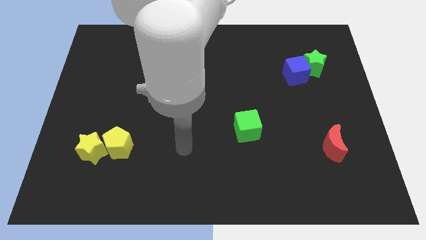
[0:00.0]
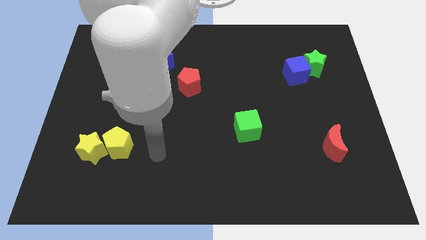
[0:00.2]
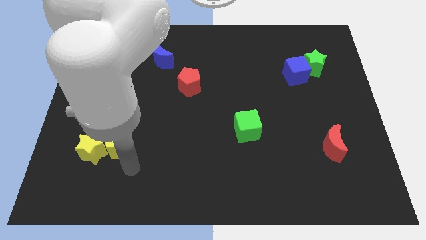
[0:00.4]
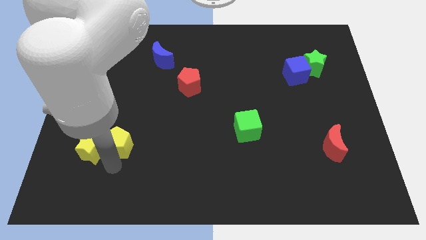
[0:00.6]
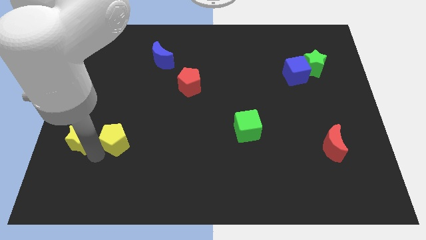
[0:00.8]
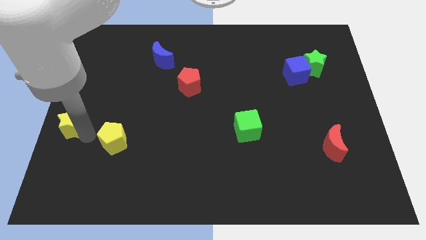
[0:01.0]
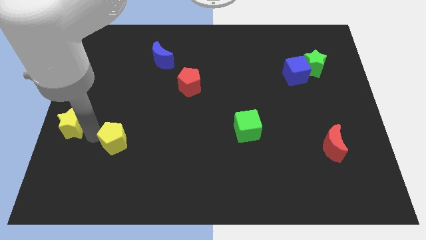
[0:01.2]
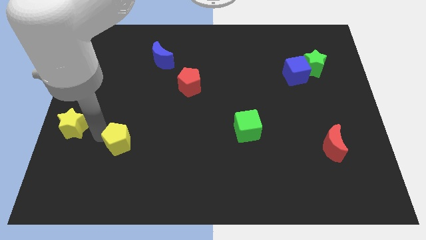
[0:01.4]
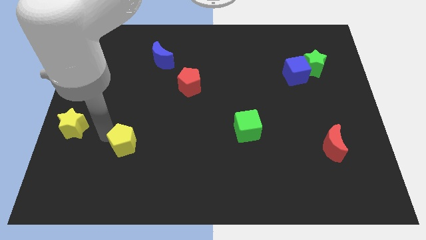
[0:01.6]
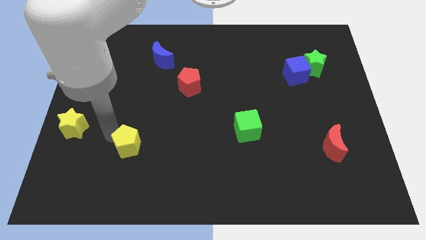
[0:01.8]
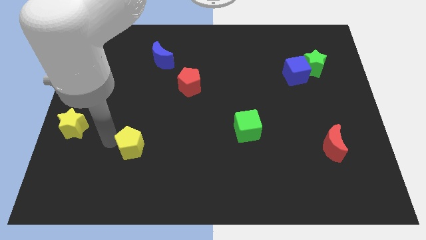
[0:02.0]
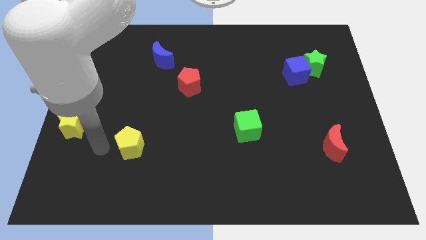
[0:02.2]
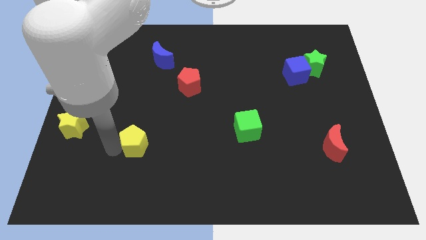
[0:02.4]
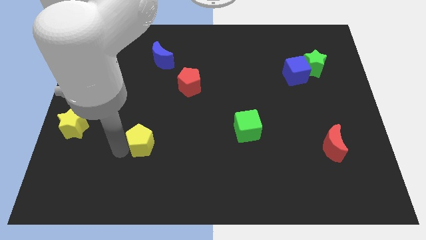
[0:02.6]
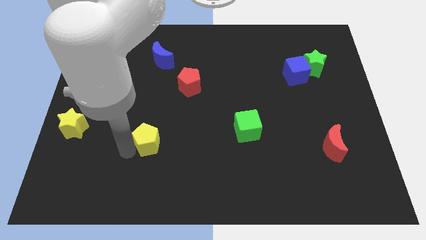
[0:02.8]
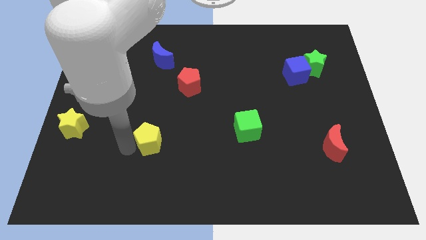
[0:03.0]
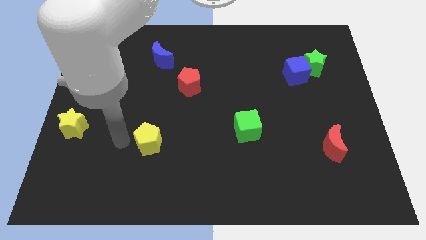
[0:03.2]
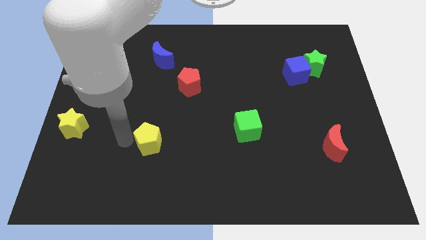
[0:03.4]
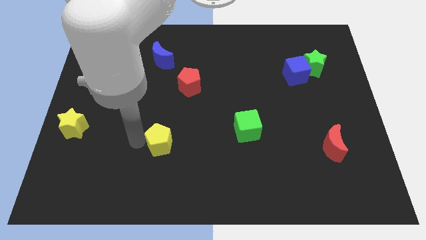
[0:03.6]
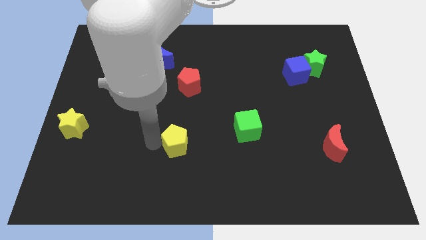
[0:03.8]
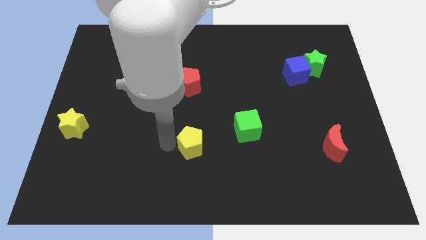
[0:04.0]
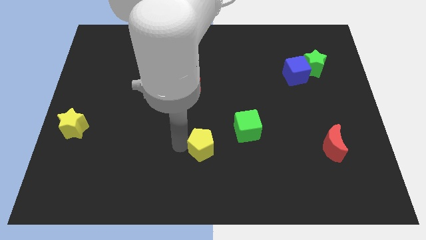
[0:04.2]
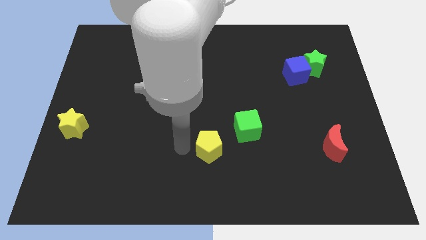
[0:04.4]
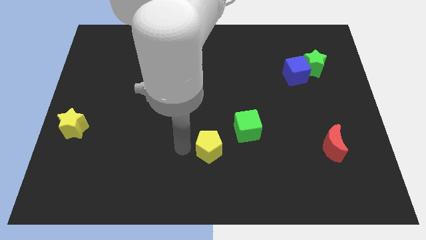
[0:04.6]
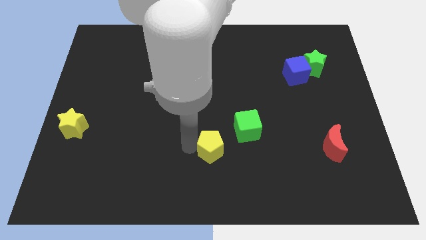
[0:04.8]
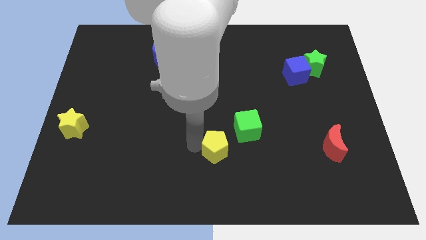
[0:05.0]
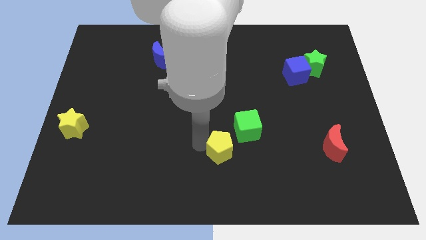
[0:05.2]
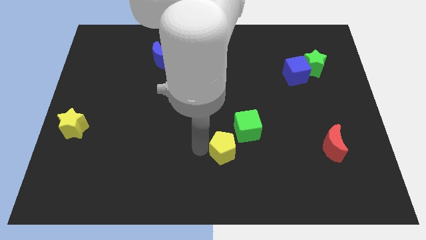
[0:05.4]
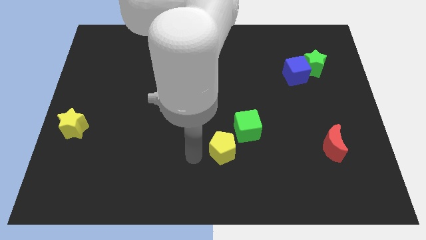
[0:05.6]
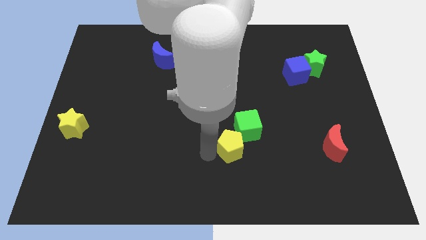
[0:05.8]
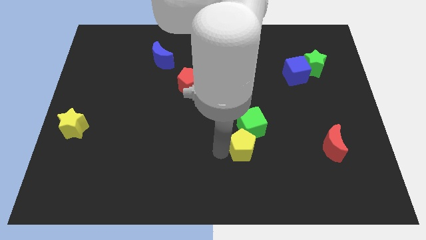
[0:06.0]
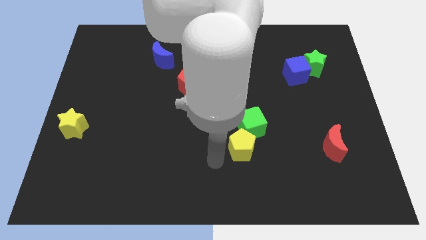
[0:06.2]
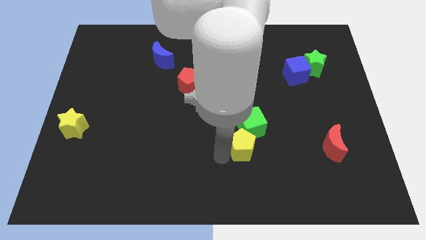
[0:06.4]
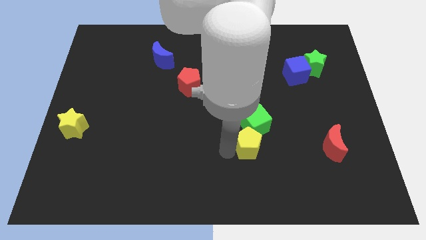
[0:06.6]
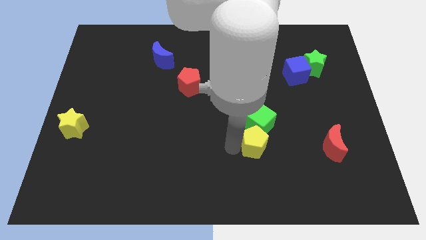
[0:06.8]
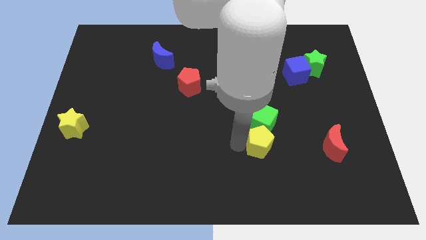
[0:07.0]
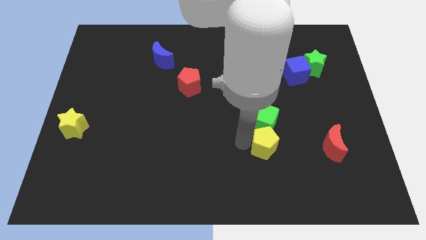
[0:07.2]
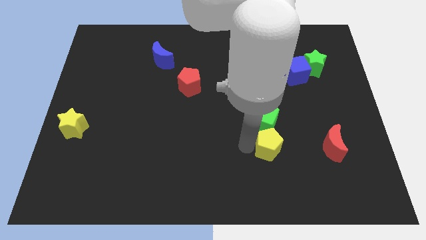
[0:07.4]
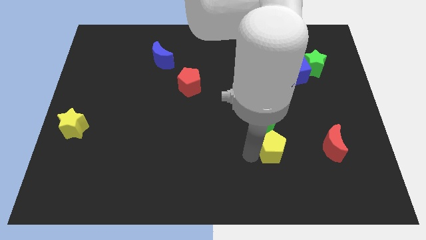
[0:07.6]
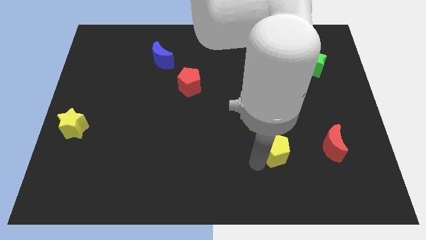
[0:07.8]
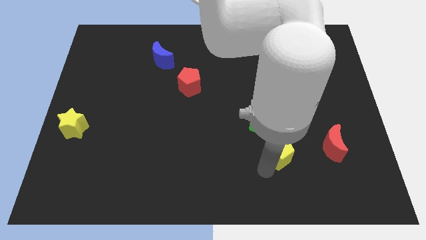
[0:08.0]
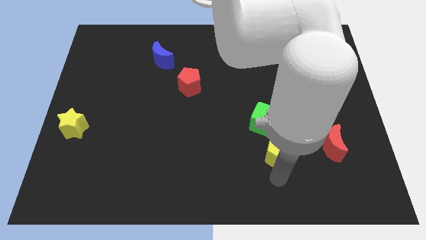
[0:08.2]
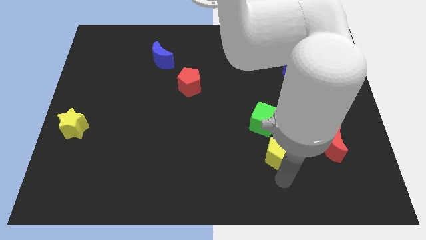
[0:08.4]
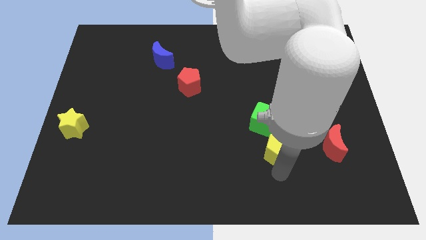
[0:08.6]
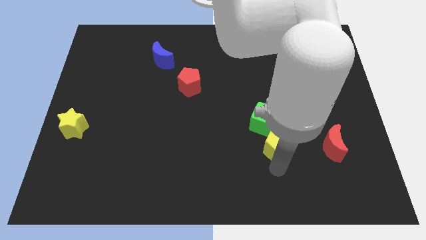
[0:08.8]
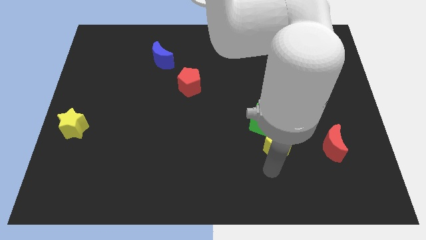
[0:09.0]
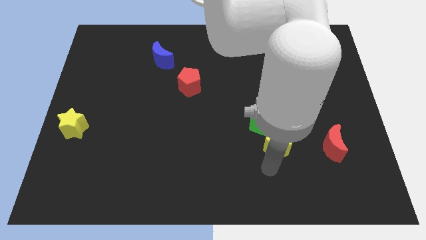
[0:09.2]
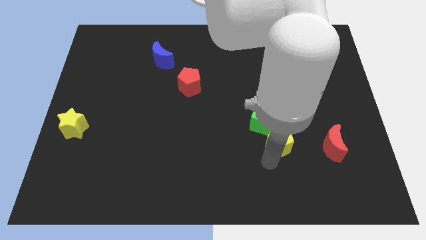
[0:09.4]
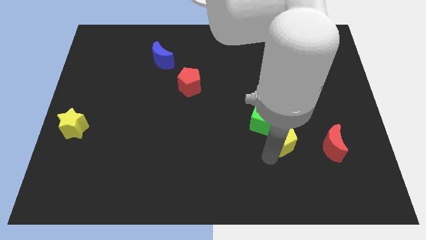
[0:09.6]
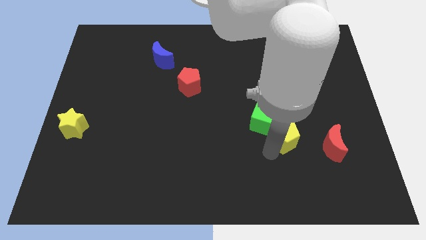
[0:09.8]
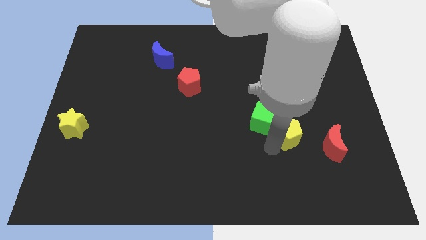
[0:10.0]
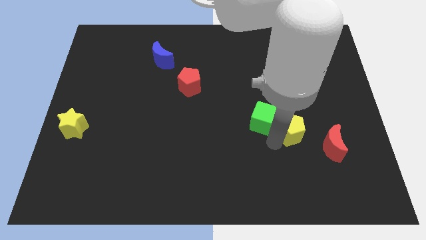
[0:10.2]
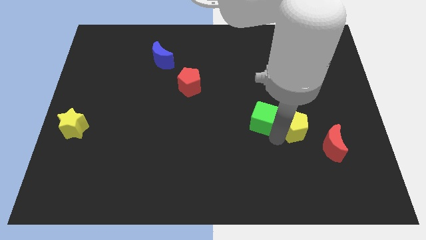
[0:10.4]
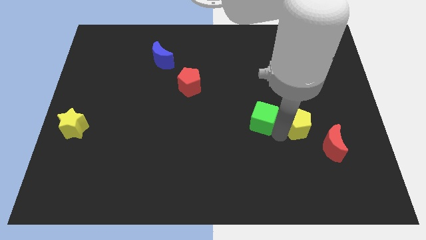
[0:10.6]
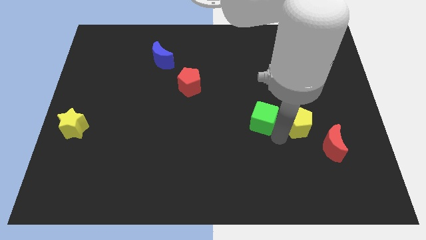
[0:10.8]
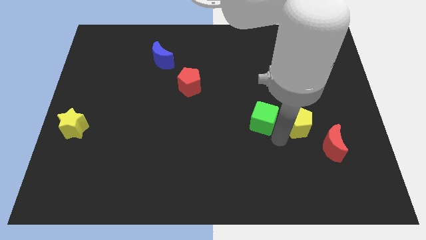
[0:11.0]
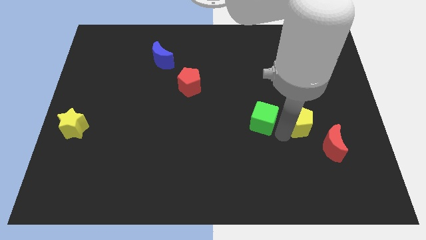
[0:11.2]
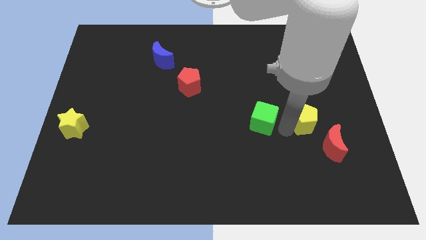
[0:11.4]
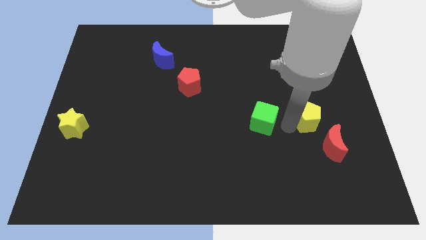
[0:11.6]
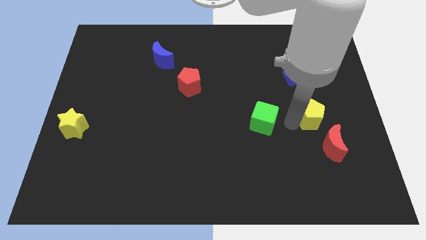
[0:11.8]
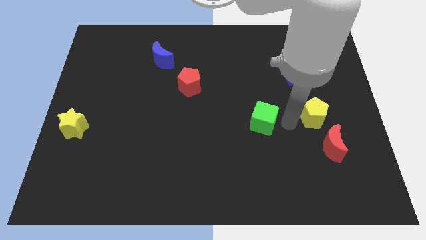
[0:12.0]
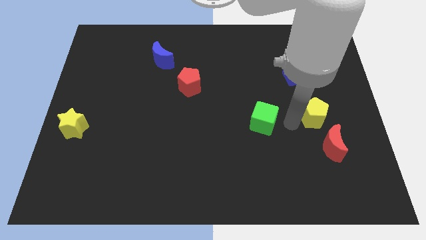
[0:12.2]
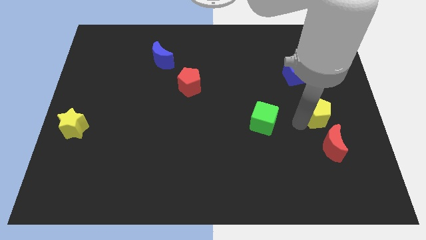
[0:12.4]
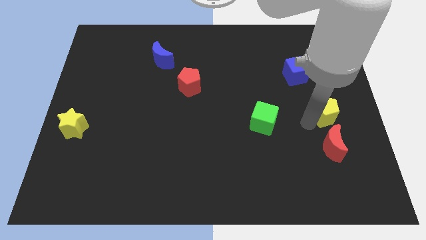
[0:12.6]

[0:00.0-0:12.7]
slide the yellow pentagon to the right side of the board

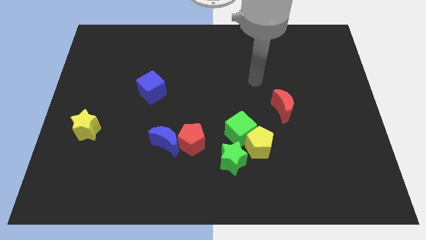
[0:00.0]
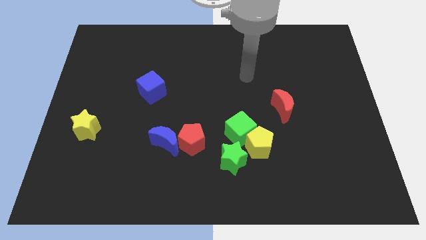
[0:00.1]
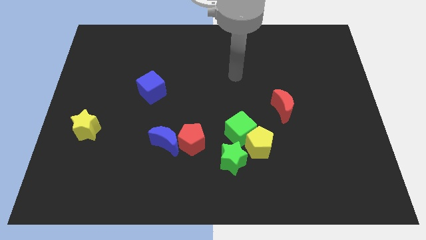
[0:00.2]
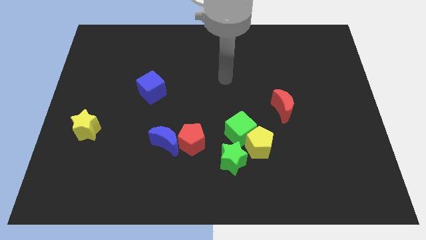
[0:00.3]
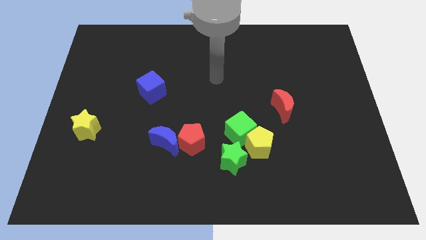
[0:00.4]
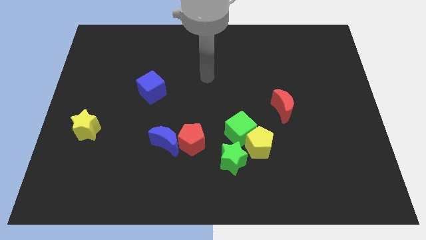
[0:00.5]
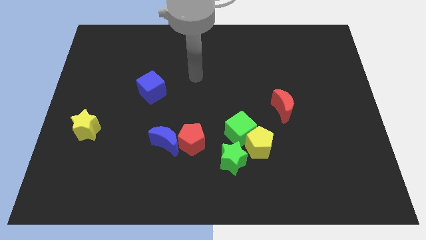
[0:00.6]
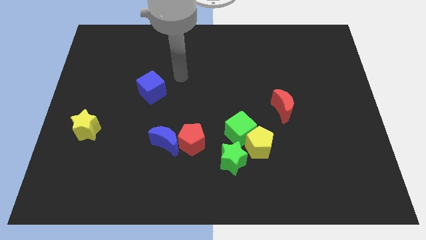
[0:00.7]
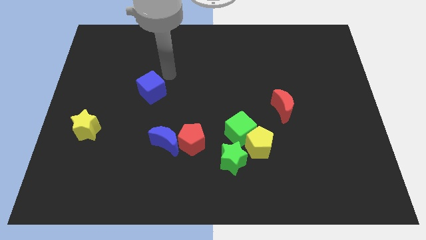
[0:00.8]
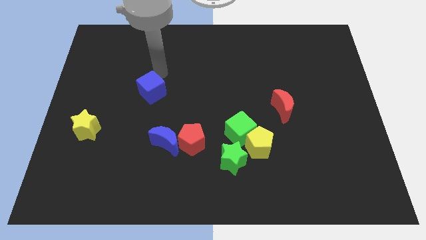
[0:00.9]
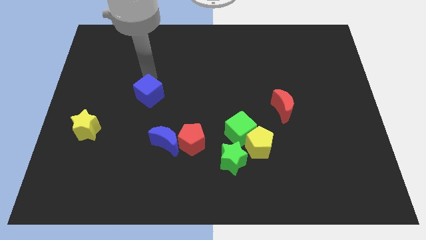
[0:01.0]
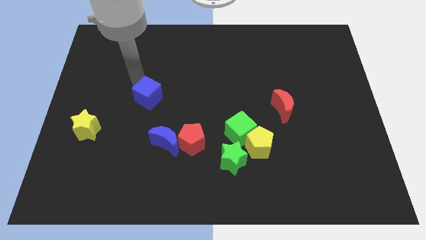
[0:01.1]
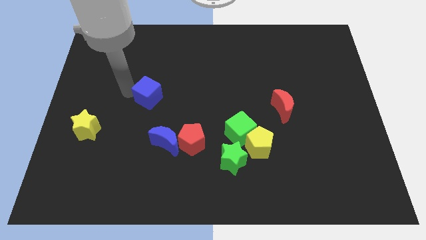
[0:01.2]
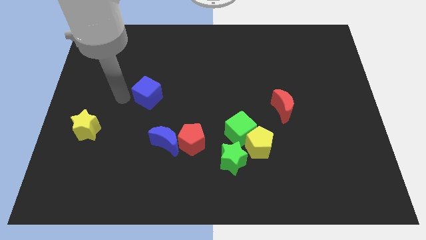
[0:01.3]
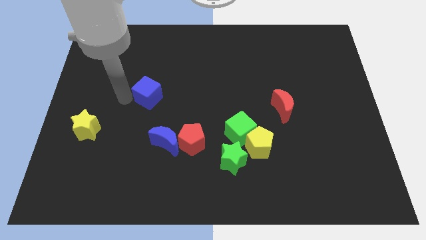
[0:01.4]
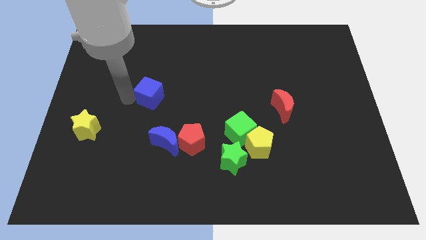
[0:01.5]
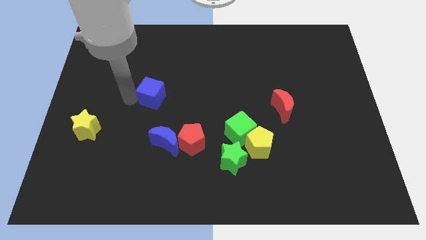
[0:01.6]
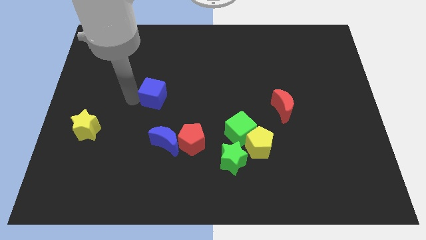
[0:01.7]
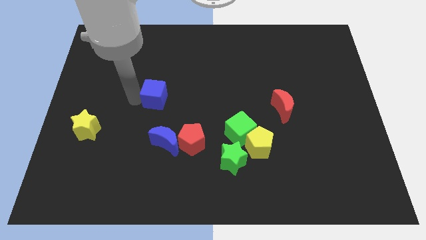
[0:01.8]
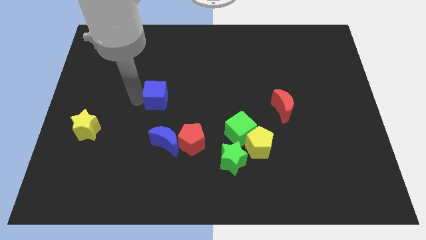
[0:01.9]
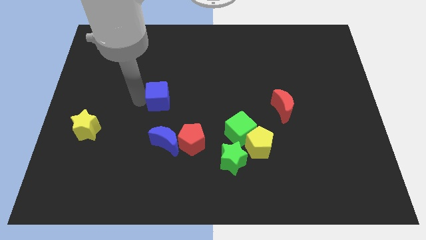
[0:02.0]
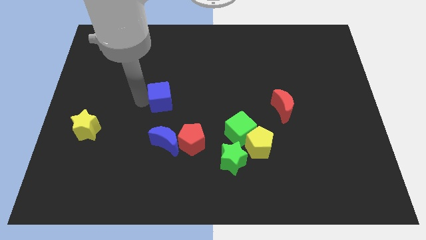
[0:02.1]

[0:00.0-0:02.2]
push the blue cube to the middle of the board
